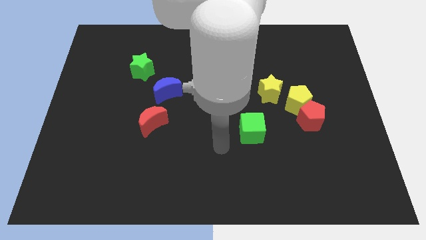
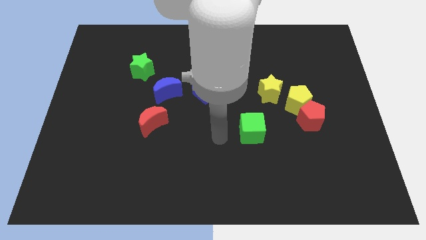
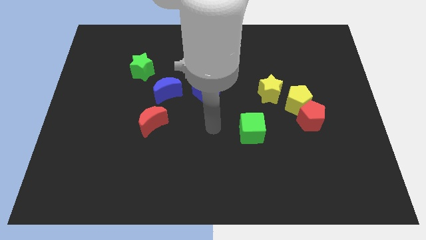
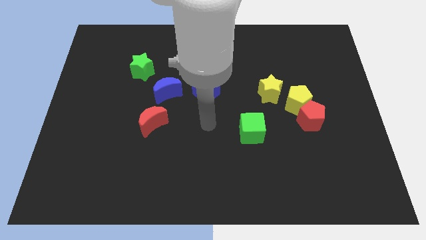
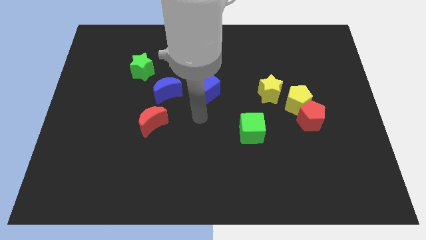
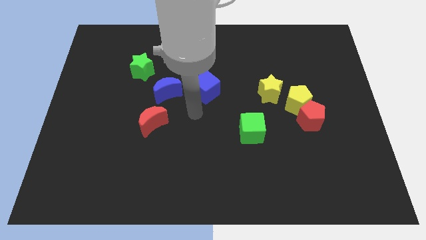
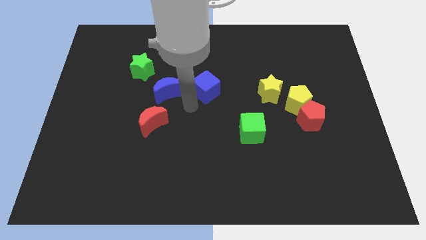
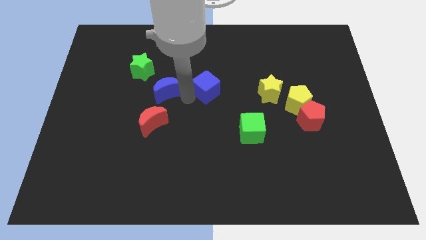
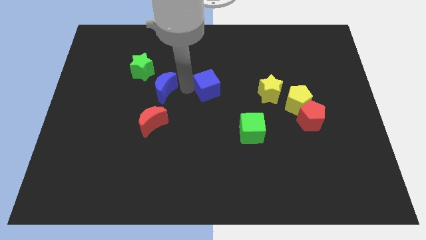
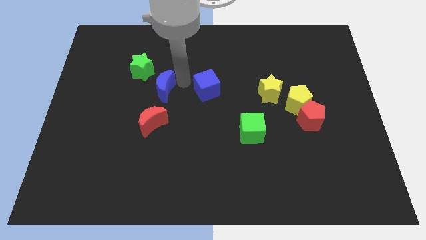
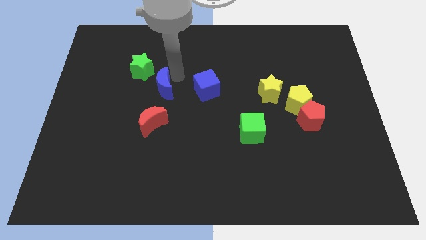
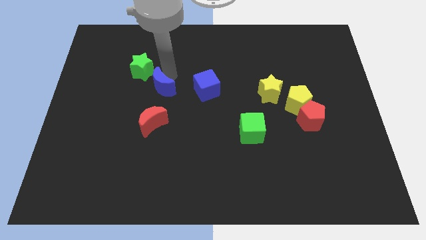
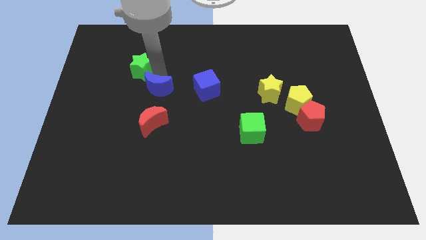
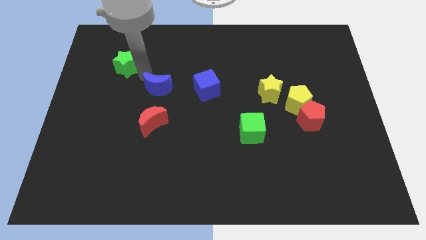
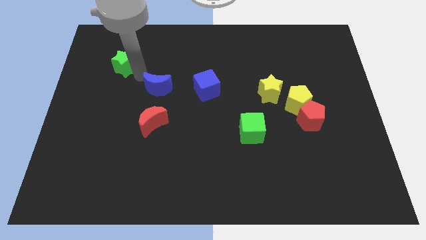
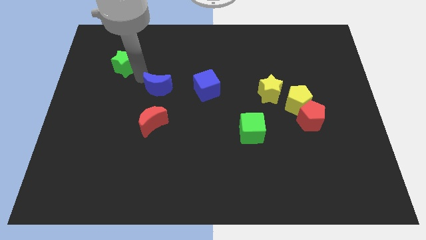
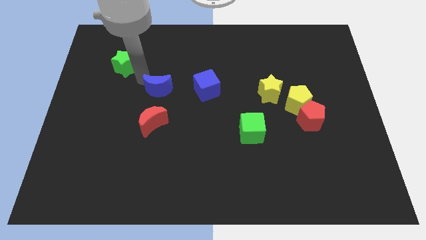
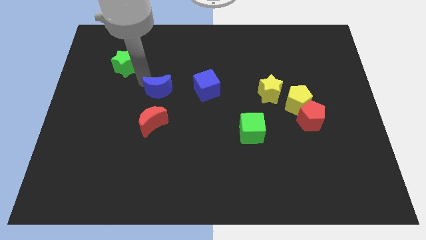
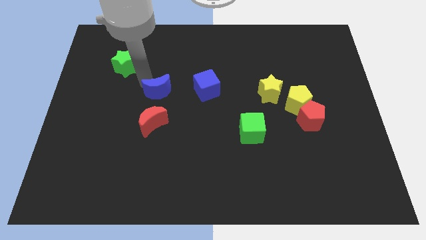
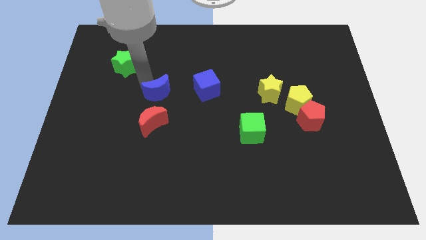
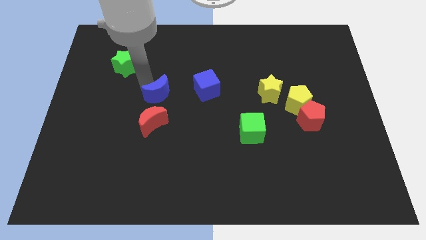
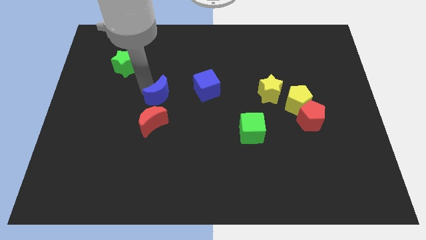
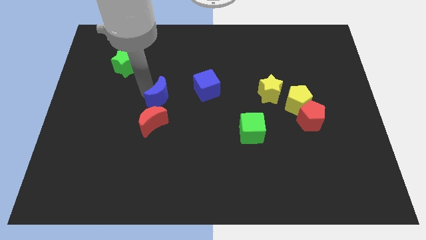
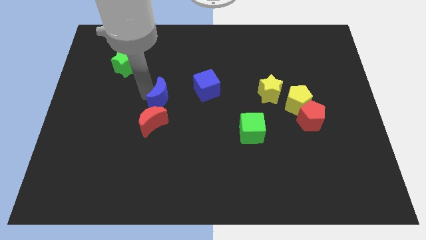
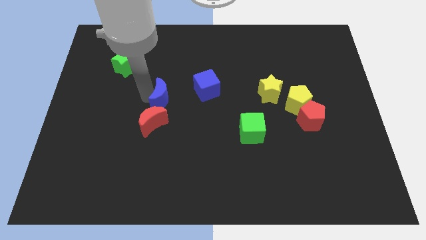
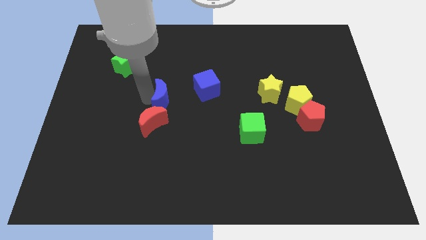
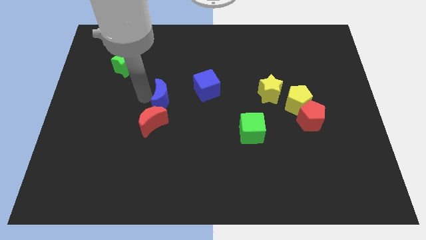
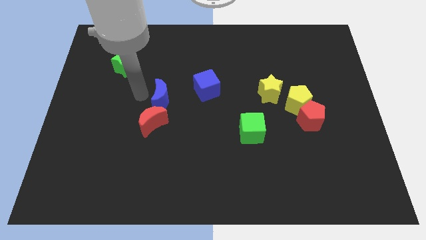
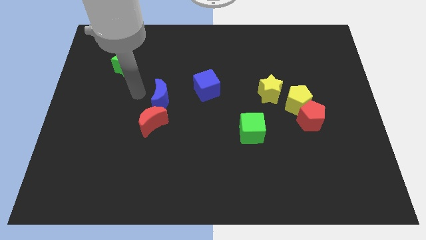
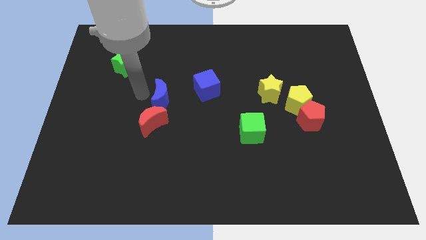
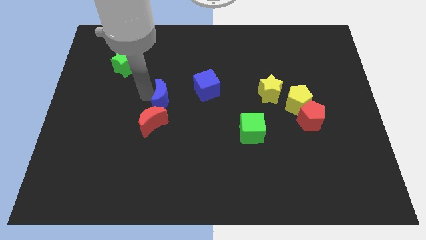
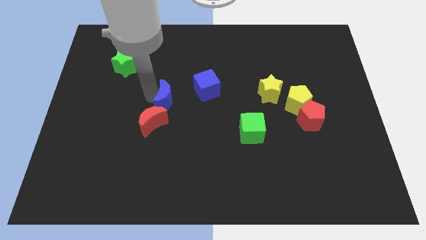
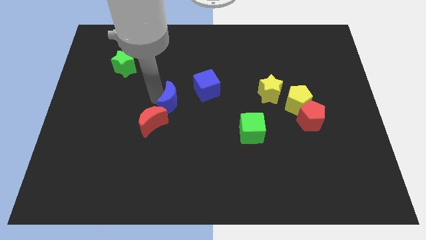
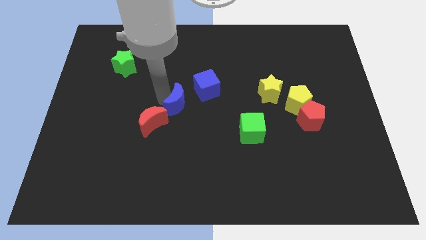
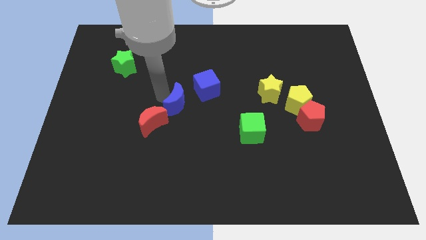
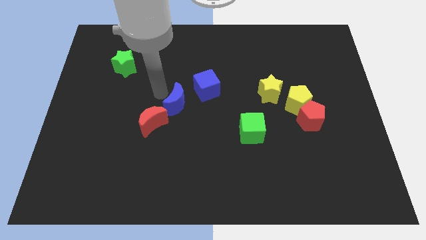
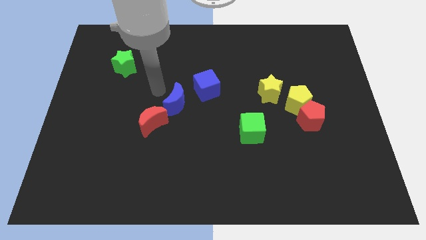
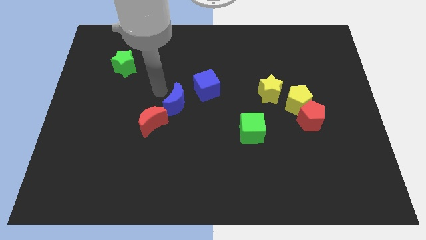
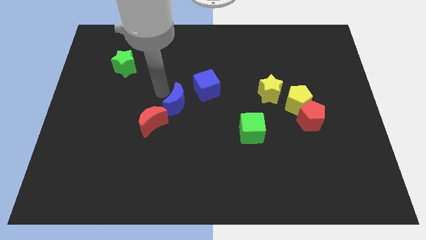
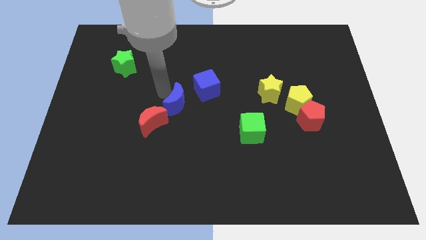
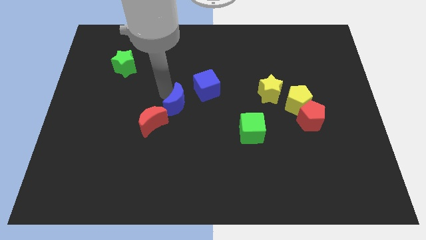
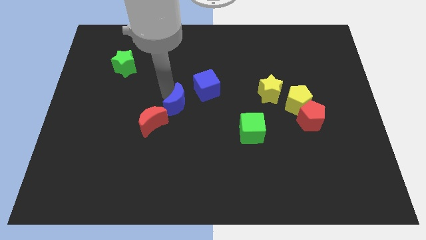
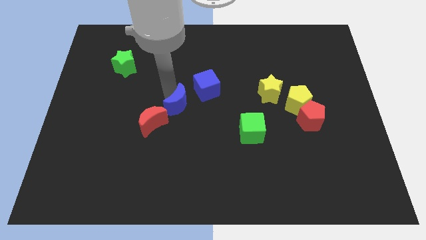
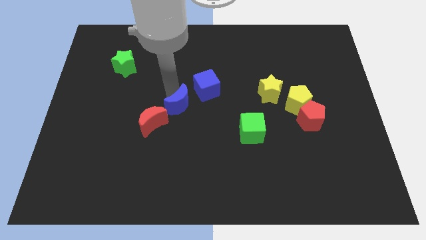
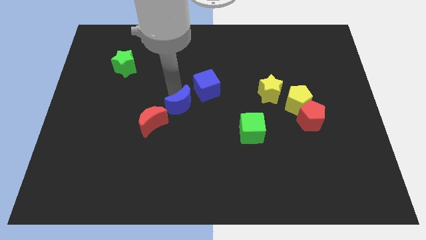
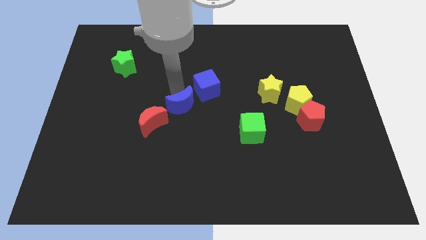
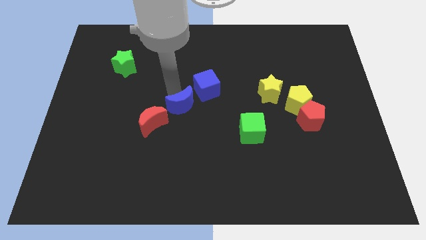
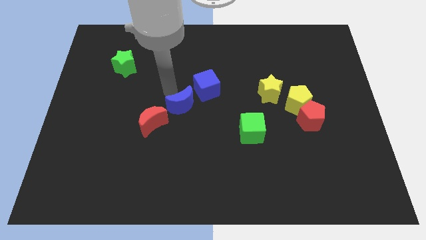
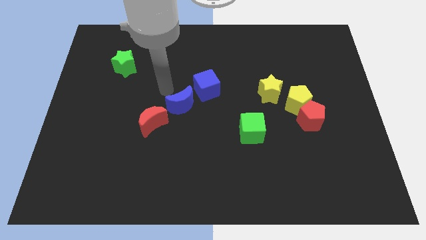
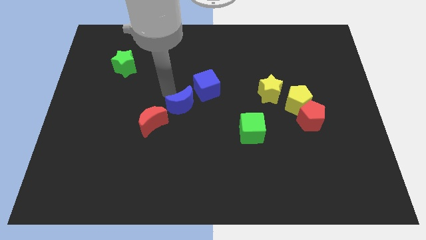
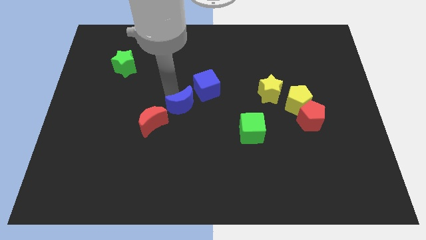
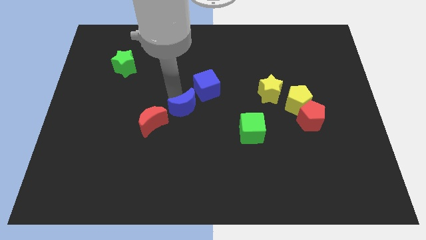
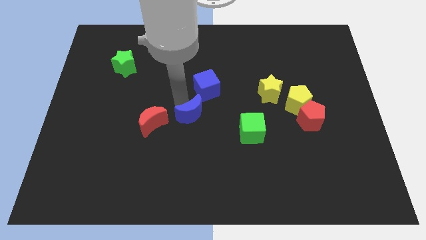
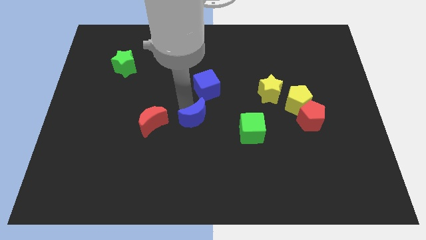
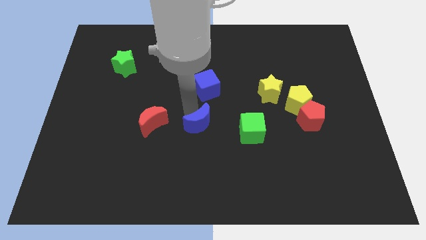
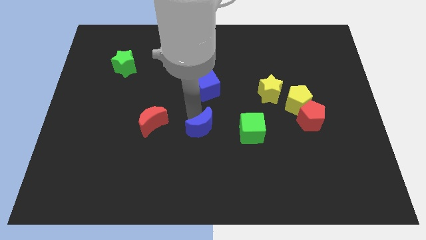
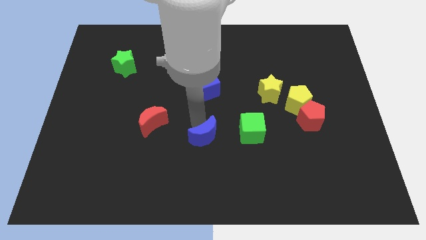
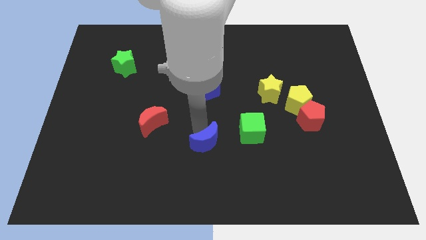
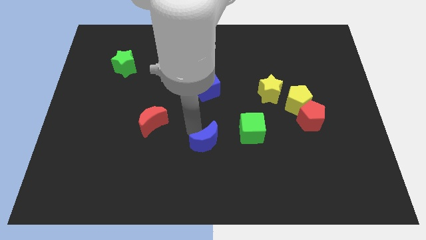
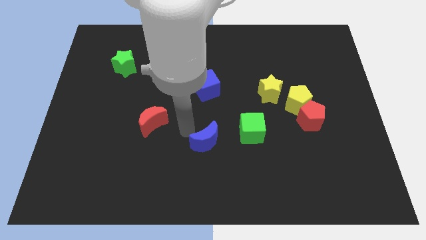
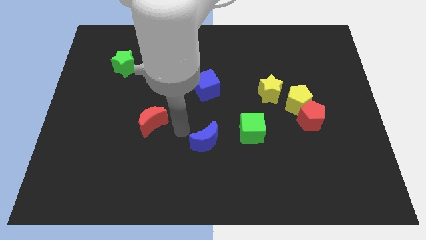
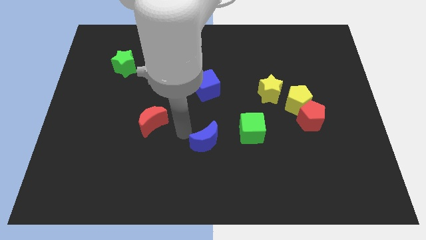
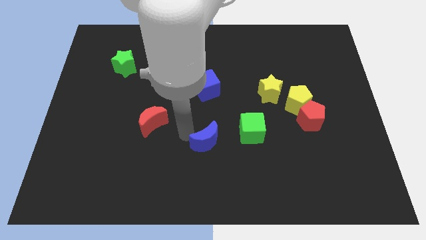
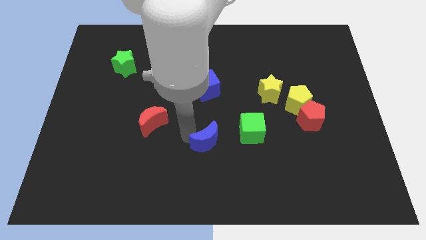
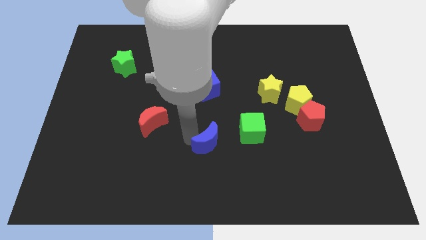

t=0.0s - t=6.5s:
put the blue moon to the bottom left side of the green cube
